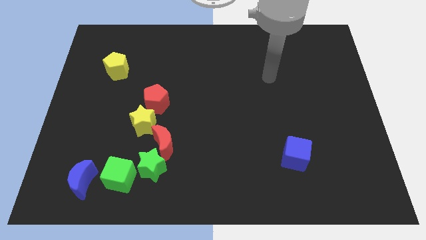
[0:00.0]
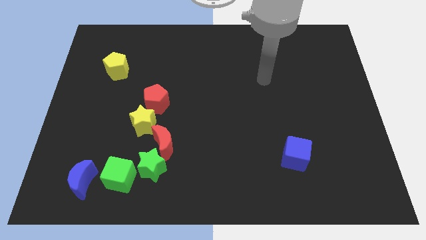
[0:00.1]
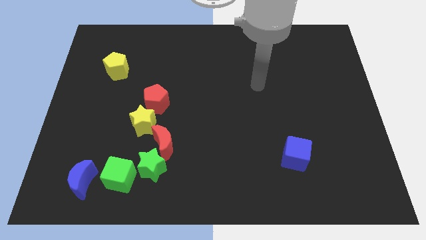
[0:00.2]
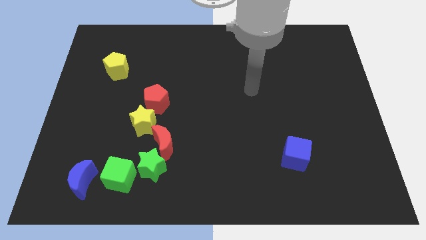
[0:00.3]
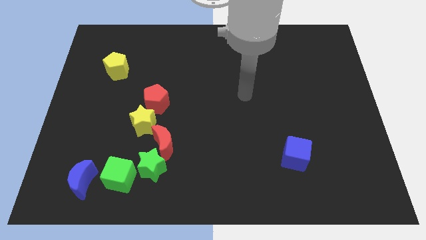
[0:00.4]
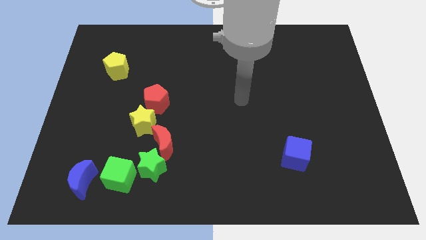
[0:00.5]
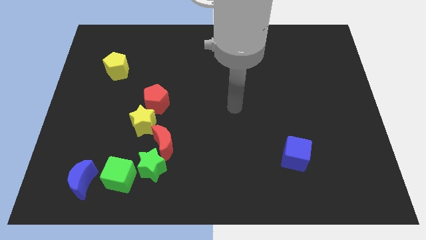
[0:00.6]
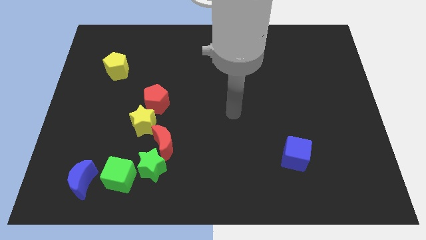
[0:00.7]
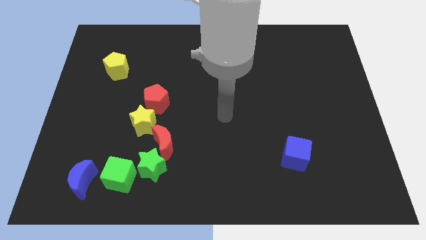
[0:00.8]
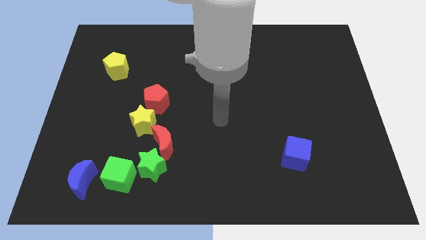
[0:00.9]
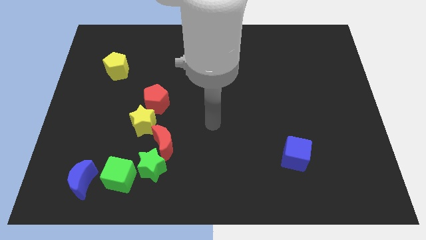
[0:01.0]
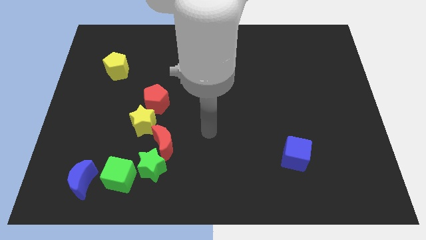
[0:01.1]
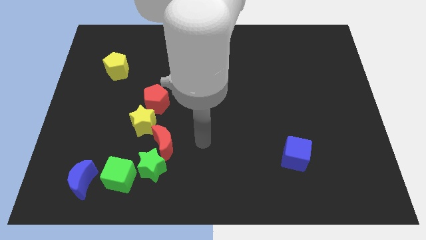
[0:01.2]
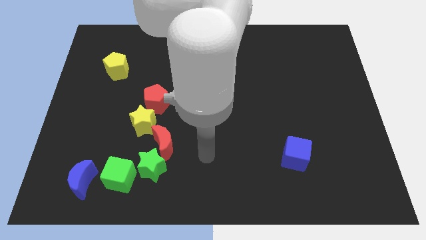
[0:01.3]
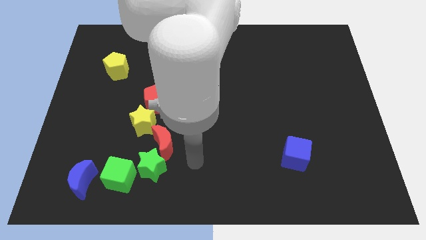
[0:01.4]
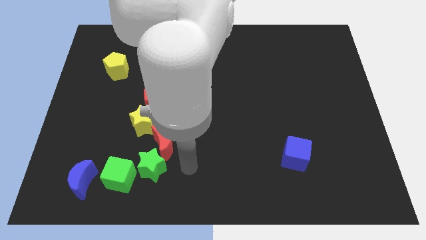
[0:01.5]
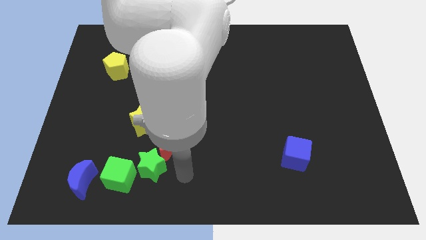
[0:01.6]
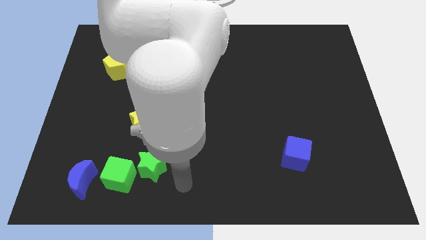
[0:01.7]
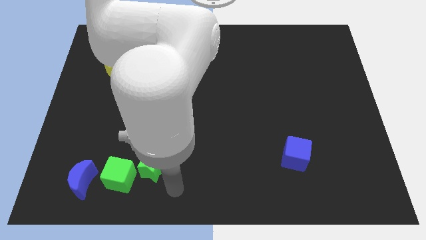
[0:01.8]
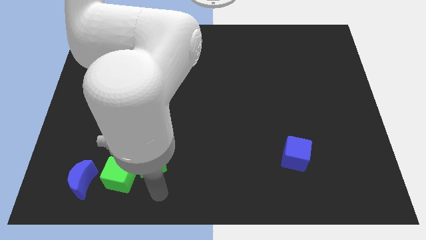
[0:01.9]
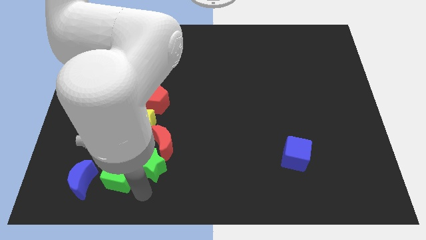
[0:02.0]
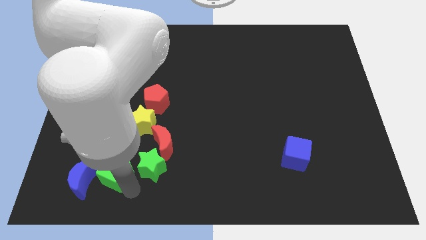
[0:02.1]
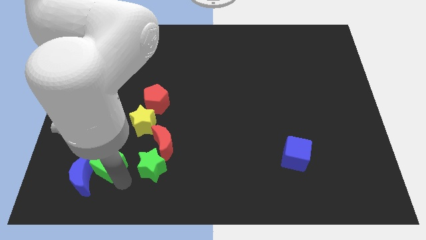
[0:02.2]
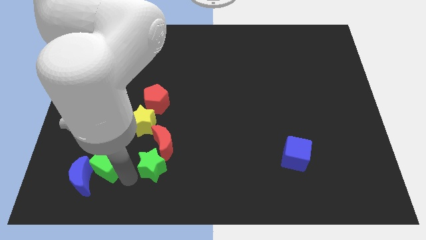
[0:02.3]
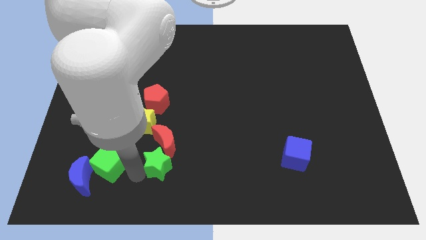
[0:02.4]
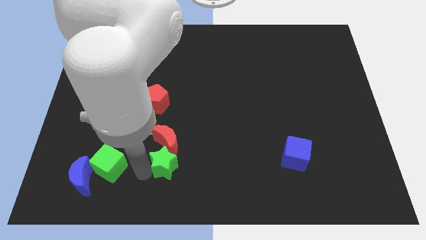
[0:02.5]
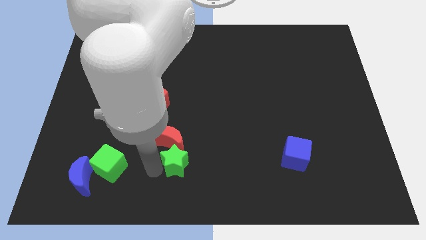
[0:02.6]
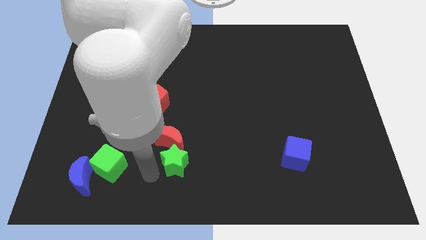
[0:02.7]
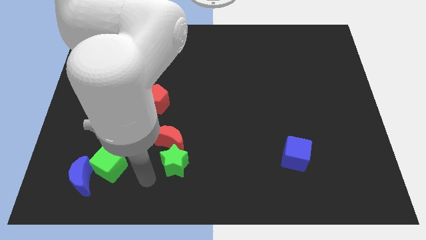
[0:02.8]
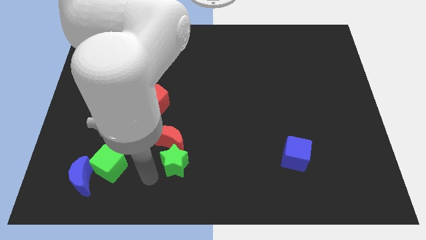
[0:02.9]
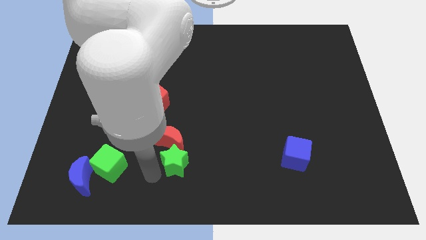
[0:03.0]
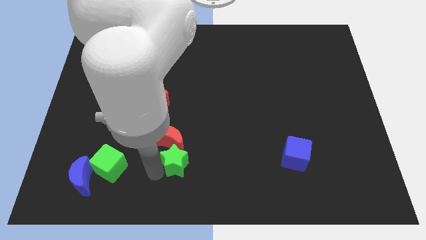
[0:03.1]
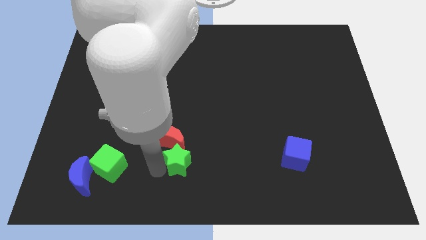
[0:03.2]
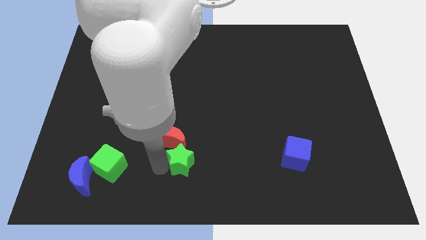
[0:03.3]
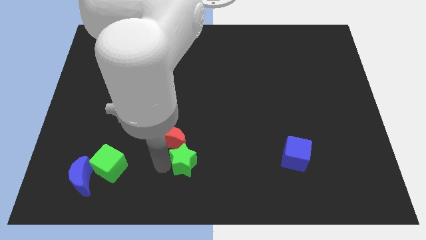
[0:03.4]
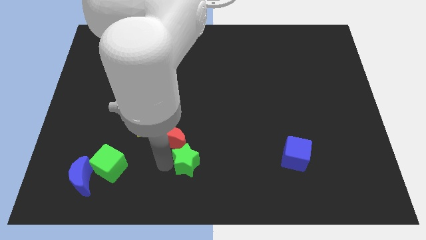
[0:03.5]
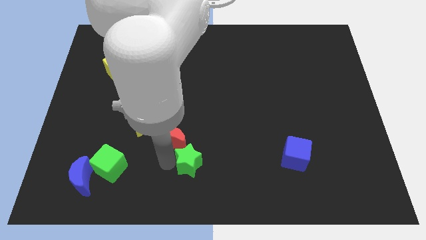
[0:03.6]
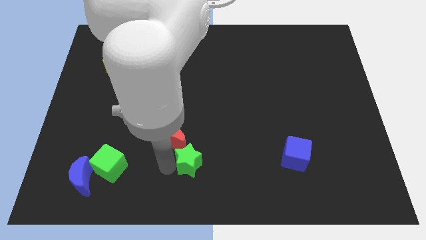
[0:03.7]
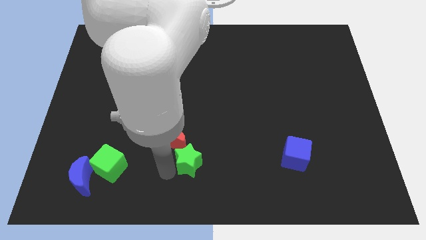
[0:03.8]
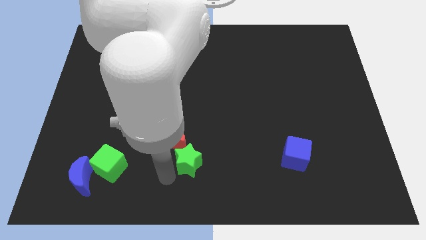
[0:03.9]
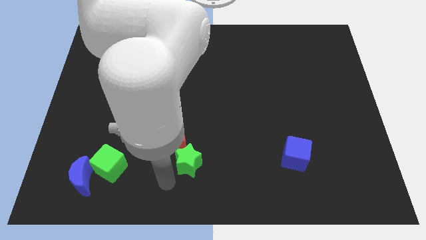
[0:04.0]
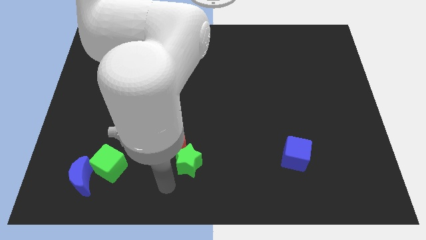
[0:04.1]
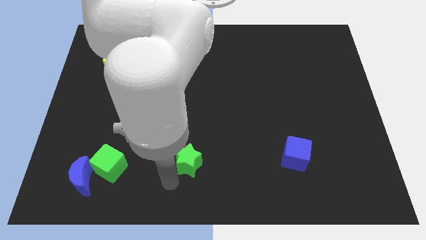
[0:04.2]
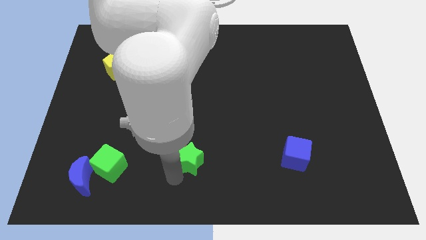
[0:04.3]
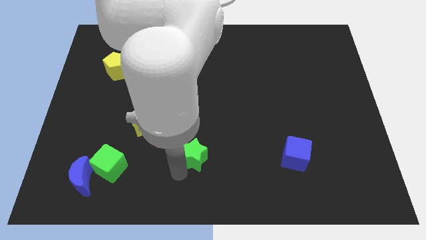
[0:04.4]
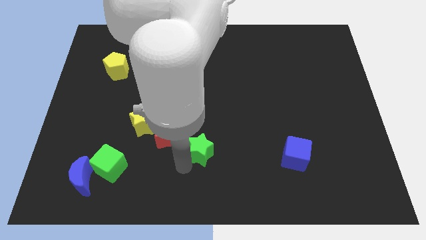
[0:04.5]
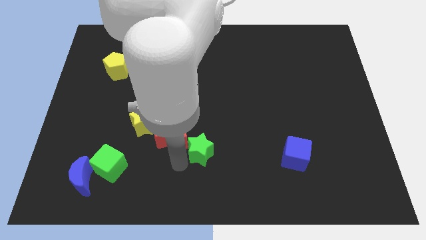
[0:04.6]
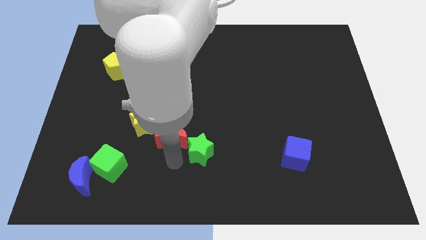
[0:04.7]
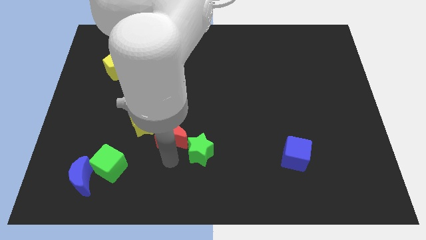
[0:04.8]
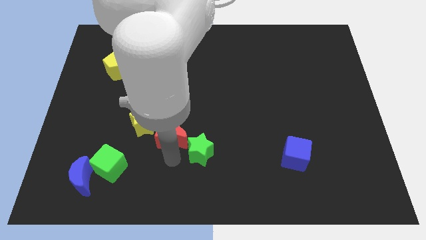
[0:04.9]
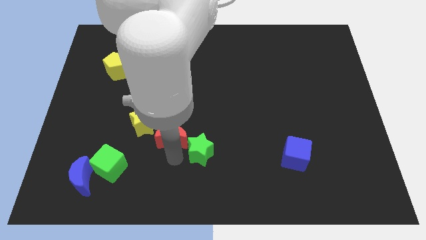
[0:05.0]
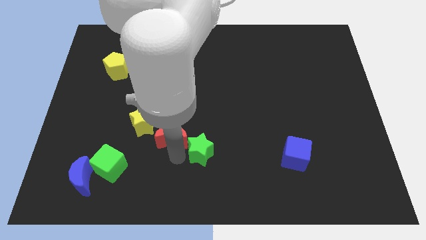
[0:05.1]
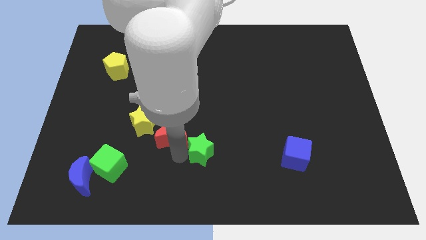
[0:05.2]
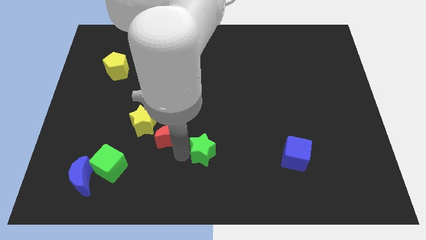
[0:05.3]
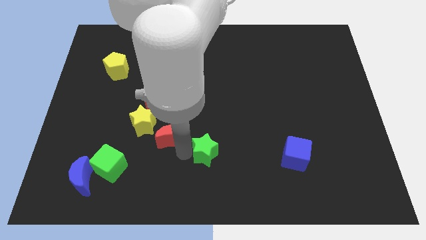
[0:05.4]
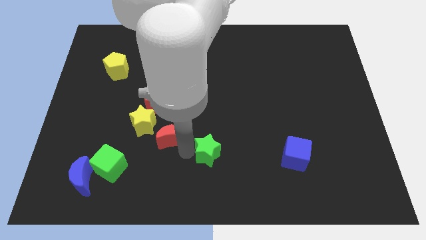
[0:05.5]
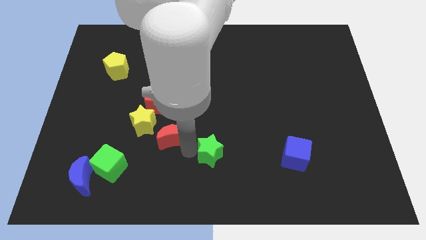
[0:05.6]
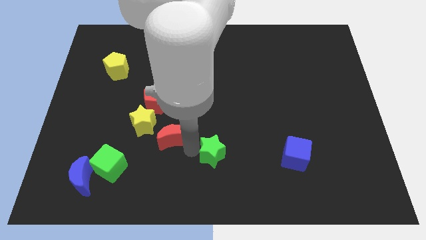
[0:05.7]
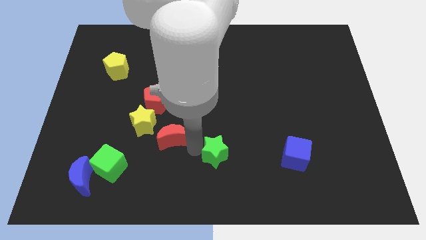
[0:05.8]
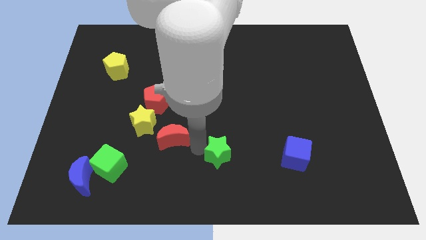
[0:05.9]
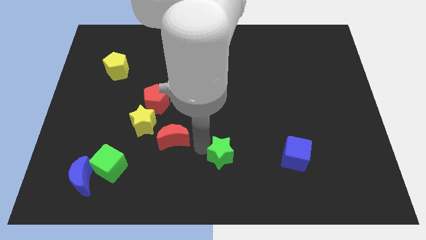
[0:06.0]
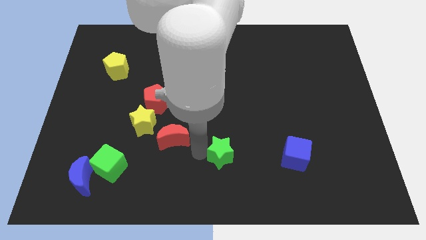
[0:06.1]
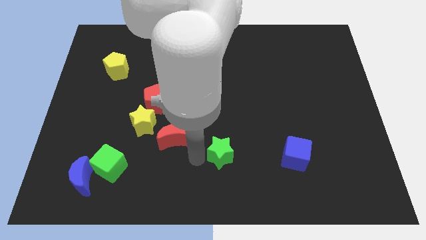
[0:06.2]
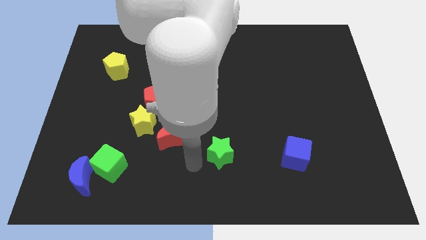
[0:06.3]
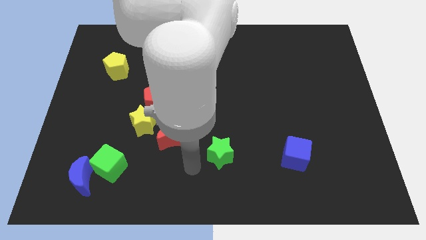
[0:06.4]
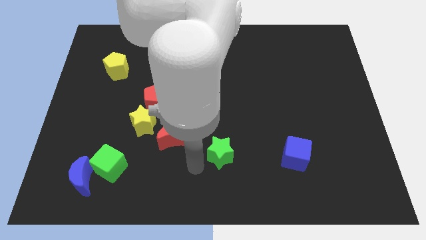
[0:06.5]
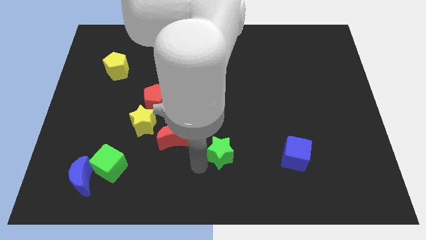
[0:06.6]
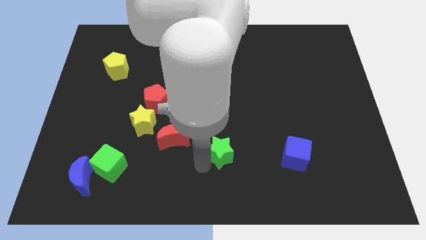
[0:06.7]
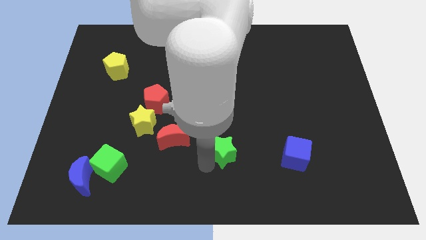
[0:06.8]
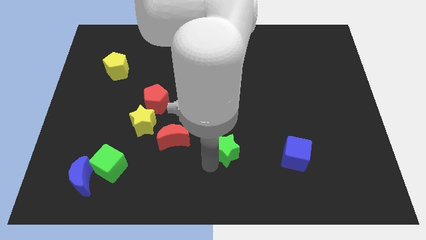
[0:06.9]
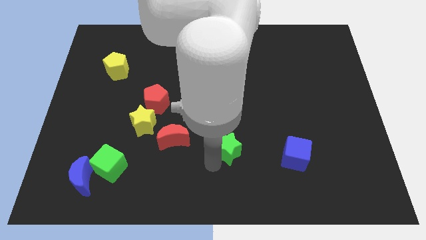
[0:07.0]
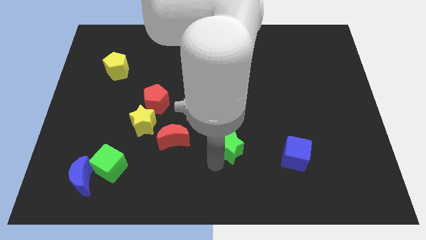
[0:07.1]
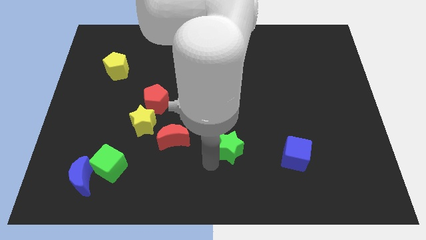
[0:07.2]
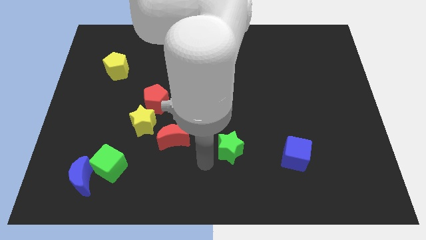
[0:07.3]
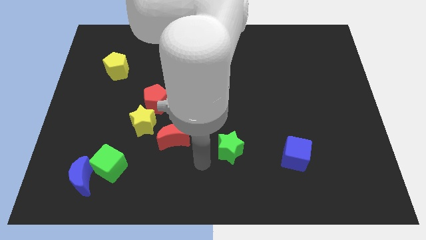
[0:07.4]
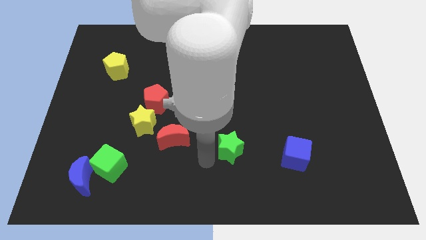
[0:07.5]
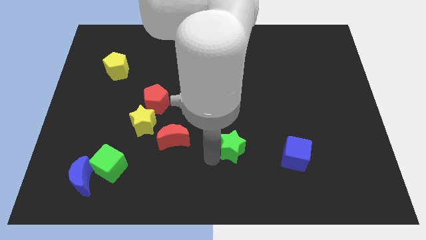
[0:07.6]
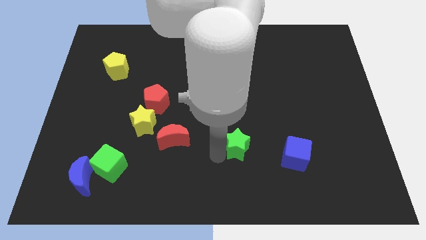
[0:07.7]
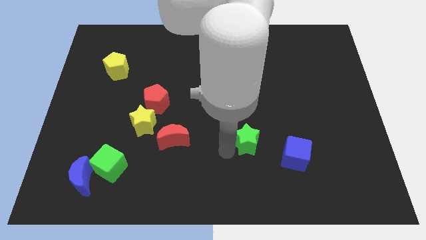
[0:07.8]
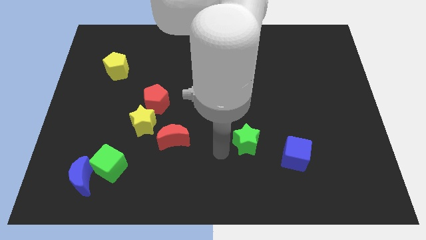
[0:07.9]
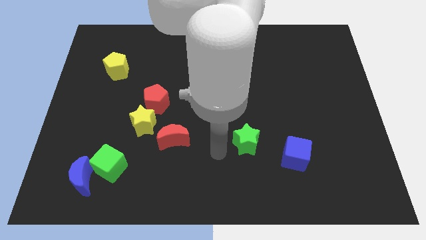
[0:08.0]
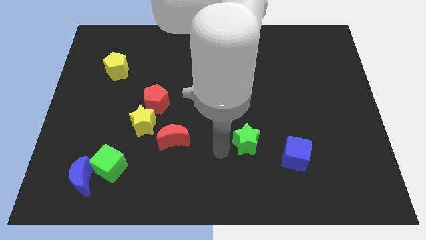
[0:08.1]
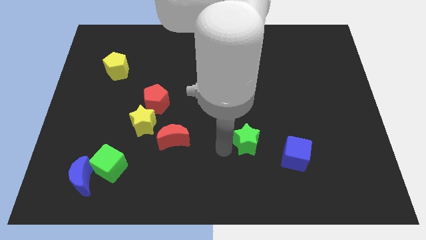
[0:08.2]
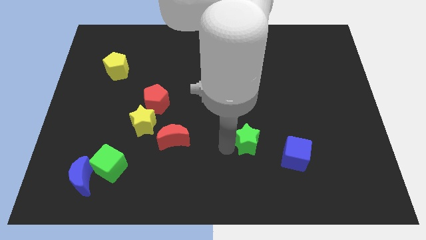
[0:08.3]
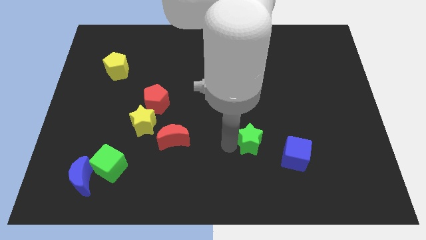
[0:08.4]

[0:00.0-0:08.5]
push the green star diagonally up and to the left of the blue cube

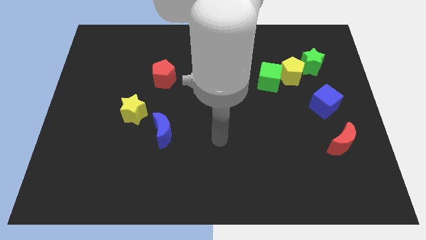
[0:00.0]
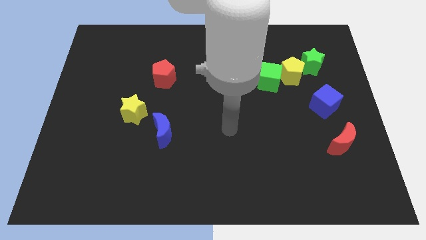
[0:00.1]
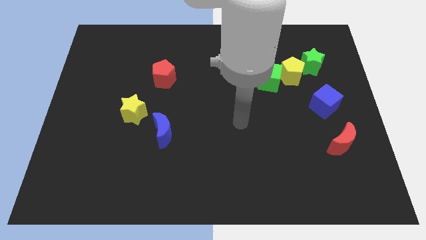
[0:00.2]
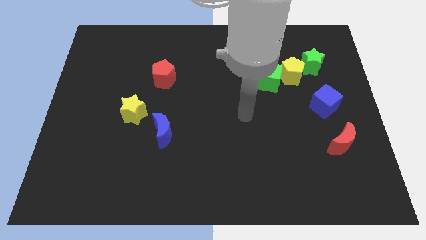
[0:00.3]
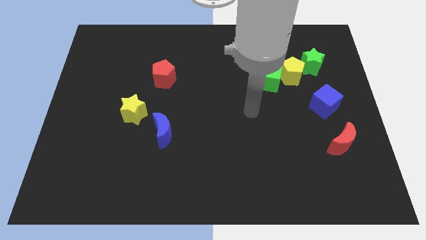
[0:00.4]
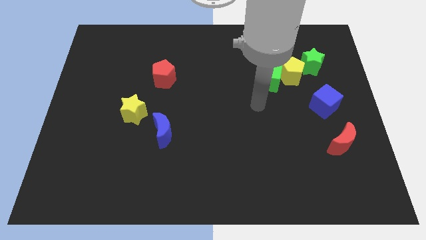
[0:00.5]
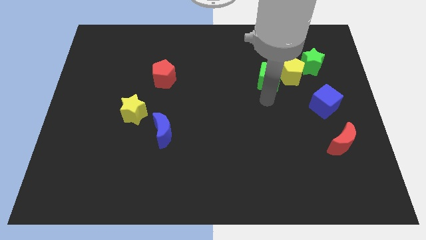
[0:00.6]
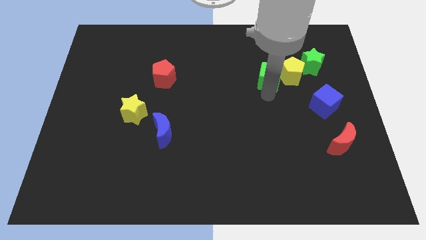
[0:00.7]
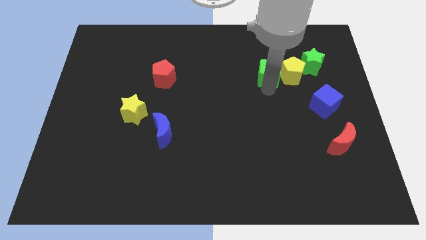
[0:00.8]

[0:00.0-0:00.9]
move the green cube left of the green star
